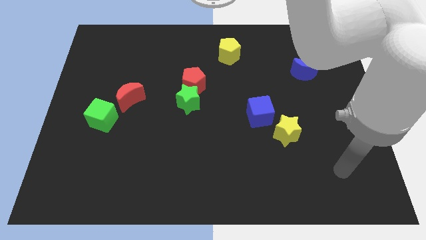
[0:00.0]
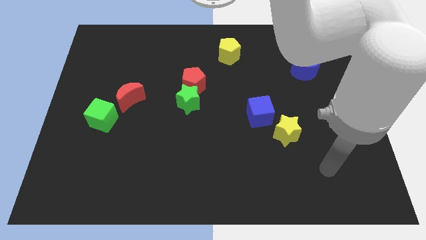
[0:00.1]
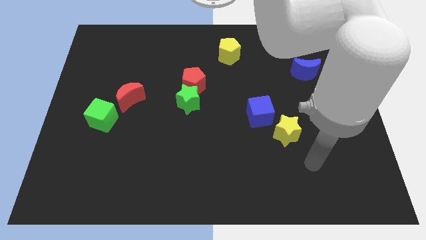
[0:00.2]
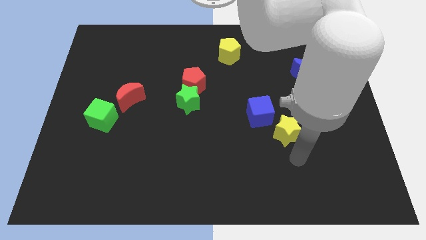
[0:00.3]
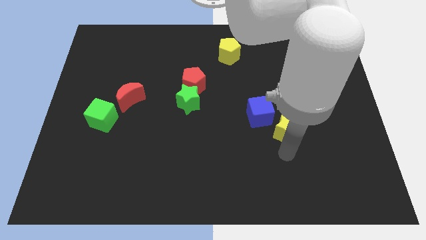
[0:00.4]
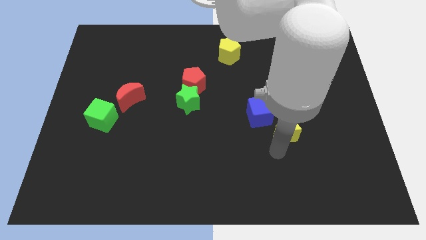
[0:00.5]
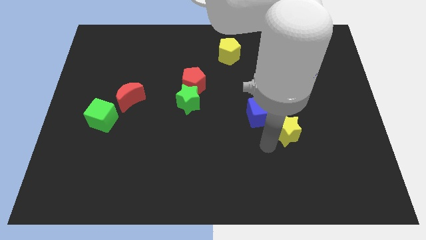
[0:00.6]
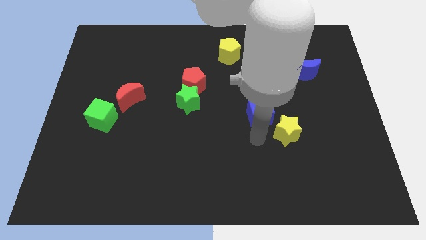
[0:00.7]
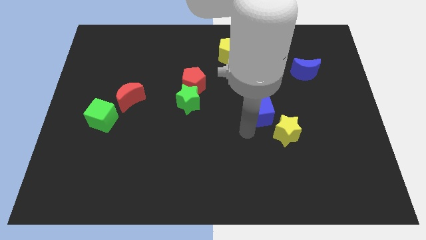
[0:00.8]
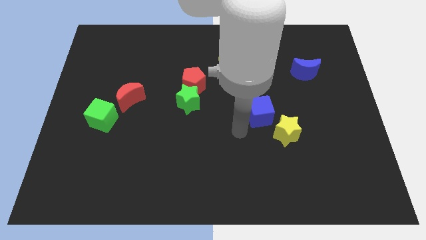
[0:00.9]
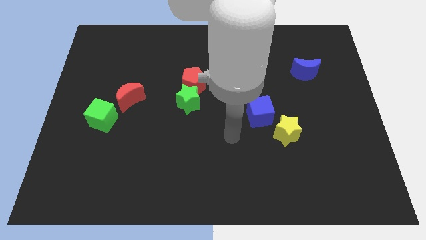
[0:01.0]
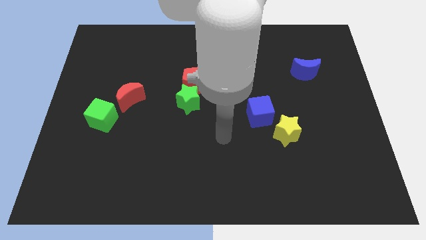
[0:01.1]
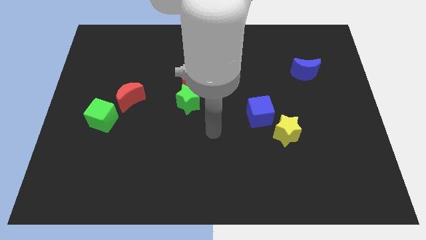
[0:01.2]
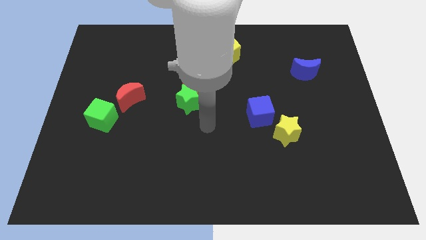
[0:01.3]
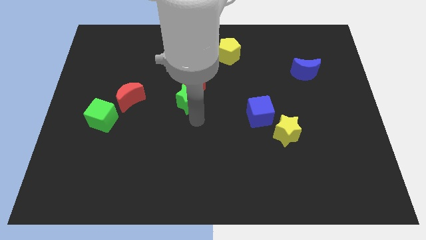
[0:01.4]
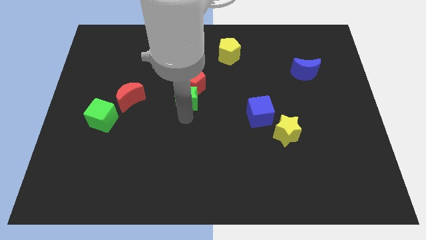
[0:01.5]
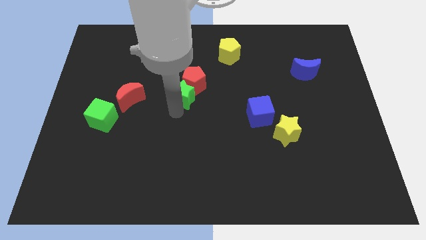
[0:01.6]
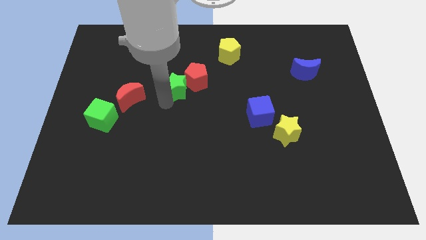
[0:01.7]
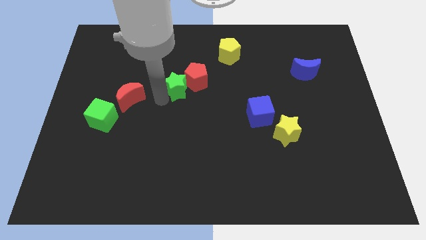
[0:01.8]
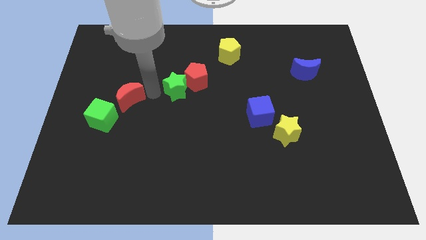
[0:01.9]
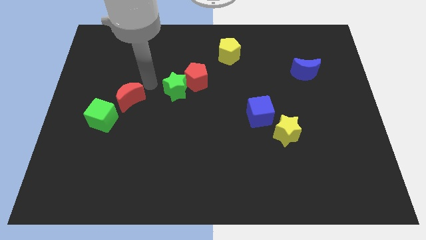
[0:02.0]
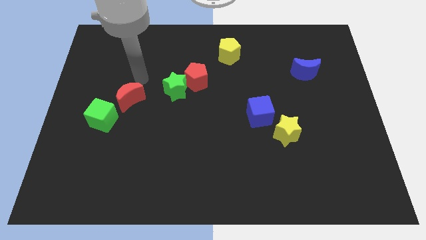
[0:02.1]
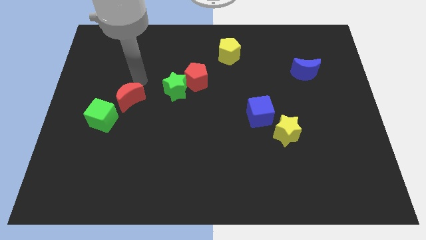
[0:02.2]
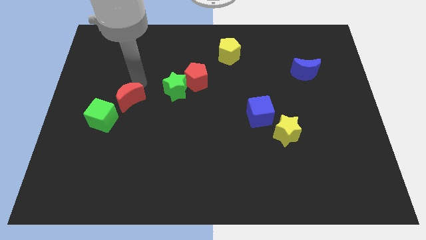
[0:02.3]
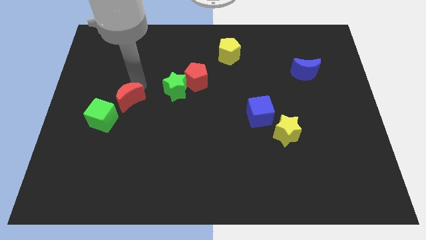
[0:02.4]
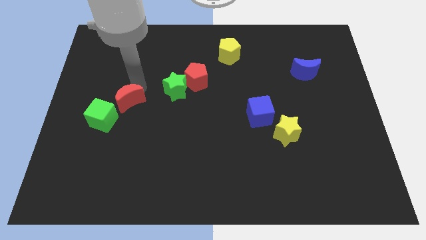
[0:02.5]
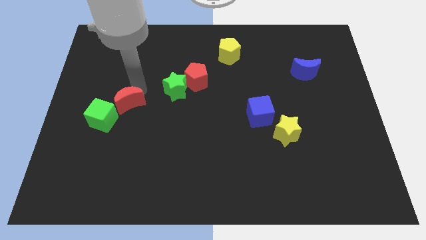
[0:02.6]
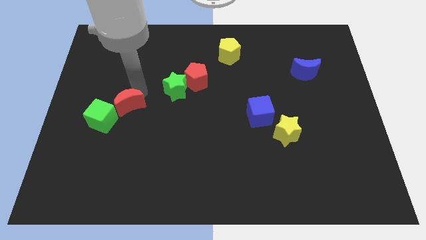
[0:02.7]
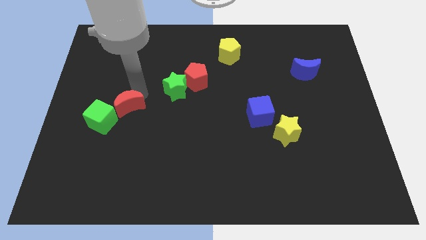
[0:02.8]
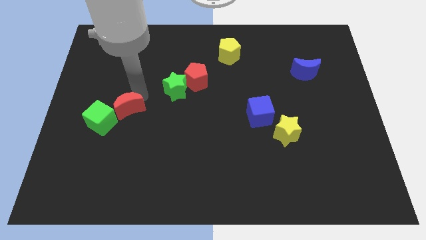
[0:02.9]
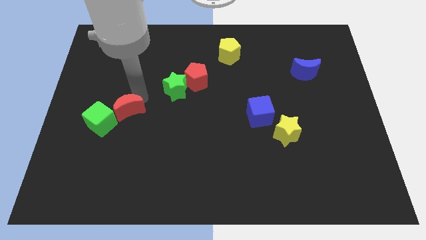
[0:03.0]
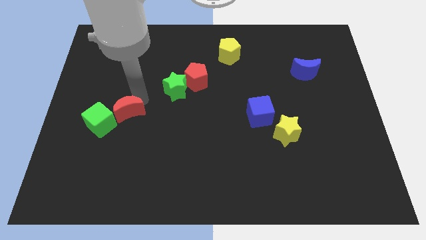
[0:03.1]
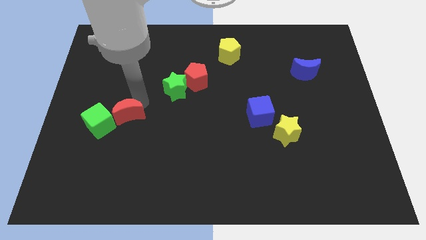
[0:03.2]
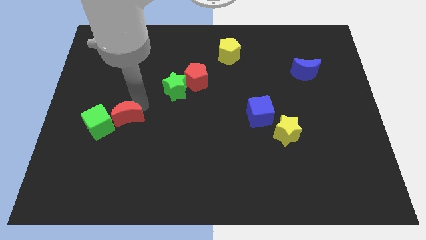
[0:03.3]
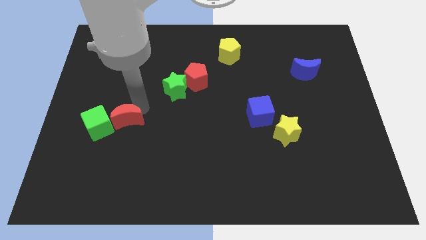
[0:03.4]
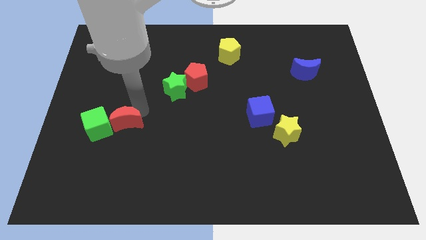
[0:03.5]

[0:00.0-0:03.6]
move the red moon downwards a bit

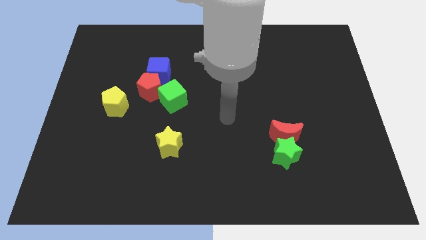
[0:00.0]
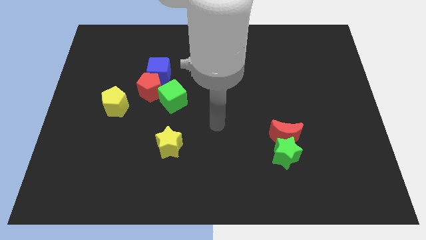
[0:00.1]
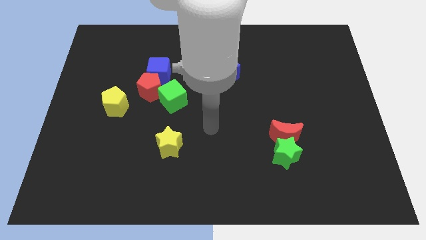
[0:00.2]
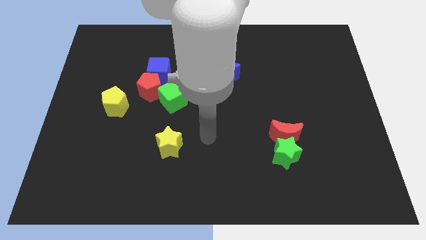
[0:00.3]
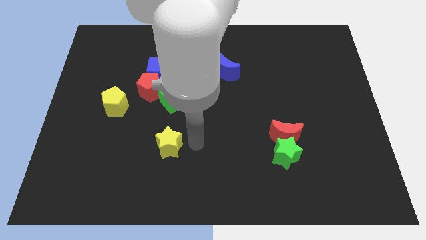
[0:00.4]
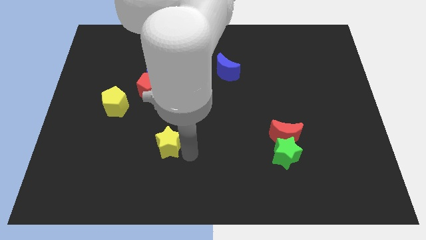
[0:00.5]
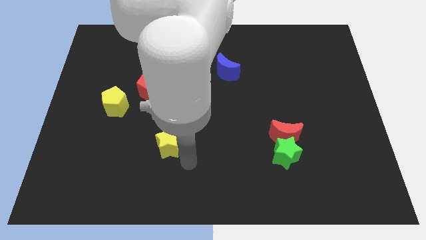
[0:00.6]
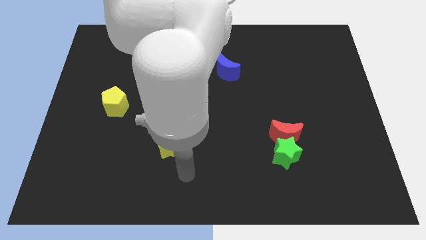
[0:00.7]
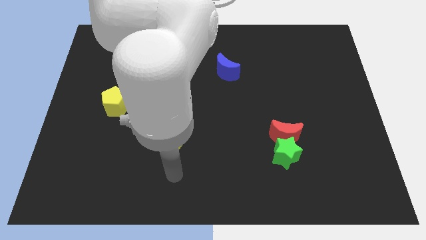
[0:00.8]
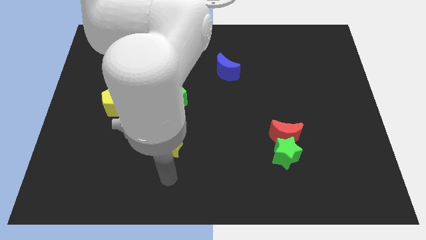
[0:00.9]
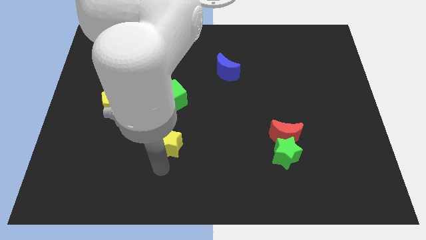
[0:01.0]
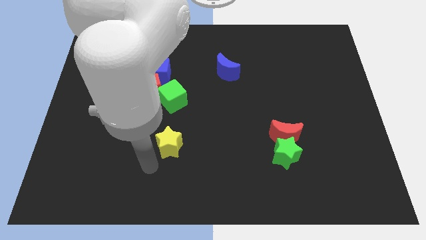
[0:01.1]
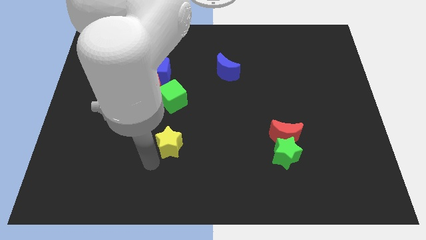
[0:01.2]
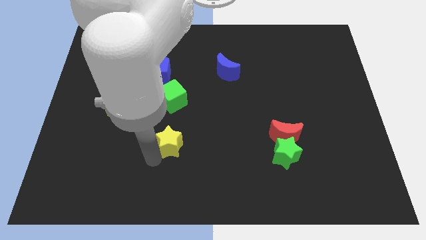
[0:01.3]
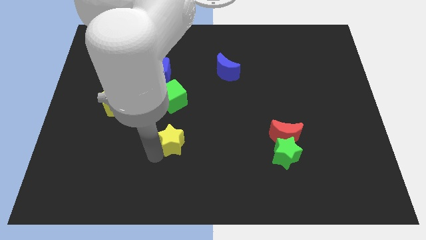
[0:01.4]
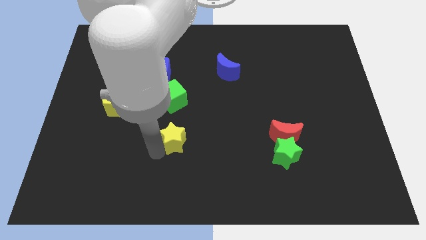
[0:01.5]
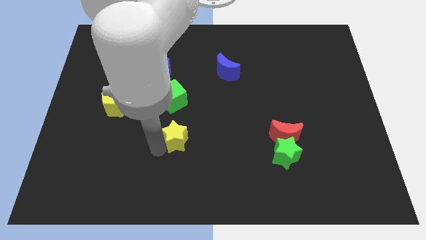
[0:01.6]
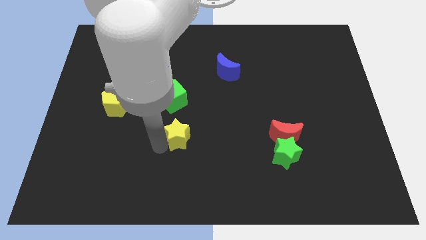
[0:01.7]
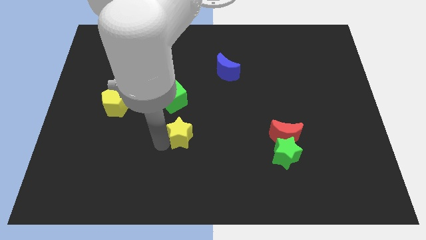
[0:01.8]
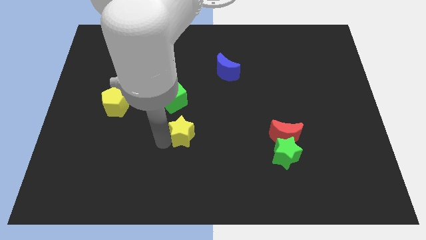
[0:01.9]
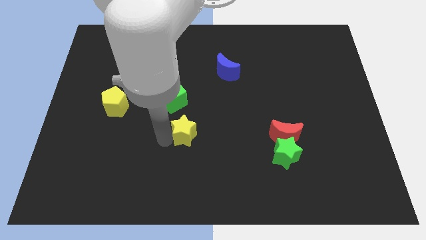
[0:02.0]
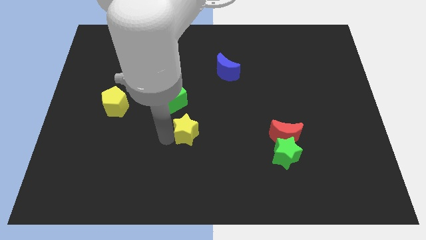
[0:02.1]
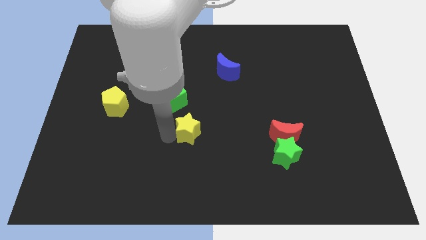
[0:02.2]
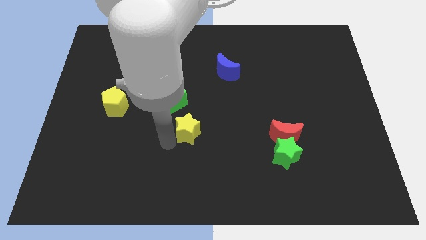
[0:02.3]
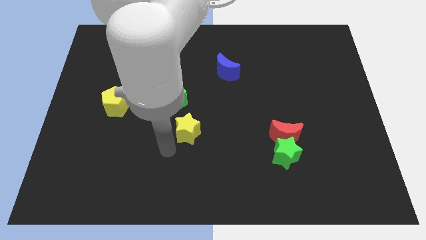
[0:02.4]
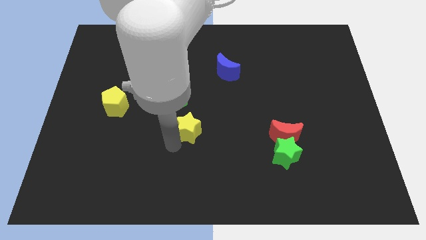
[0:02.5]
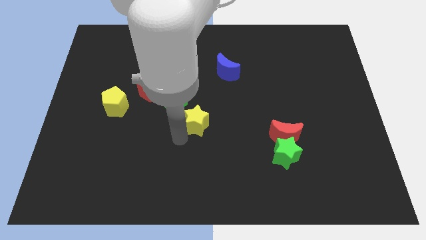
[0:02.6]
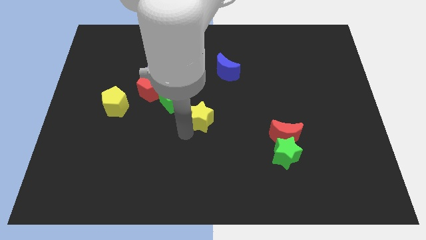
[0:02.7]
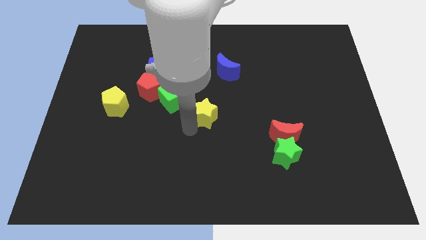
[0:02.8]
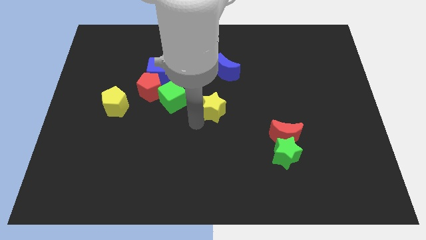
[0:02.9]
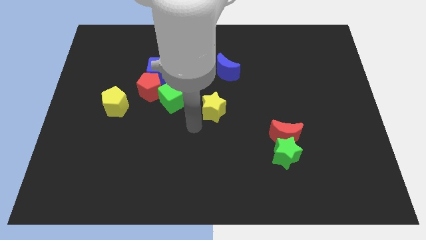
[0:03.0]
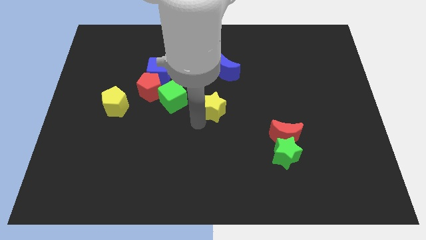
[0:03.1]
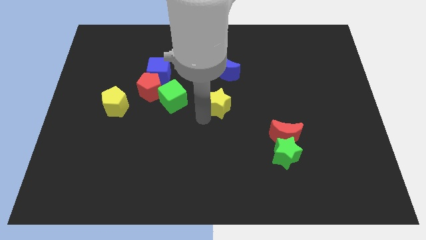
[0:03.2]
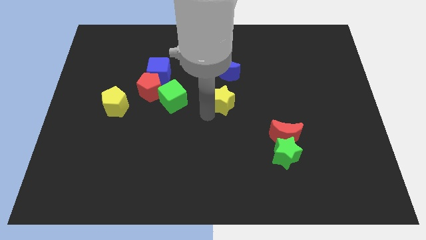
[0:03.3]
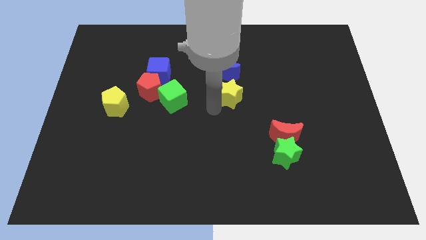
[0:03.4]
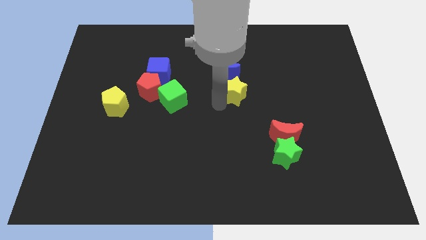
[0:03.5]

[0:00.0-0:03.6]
push the yellow star upwards and to the right diagonally

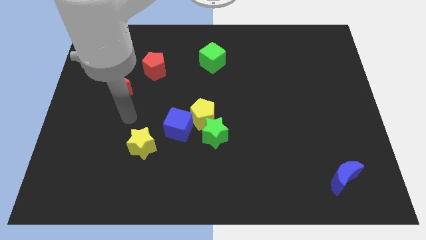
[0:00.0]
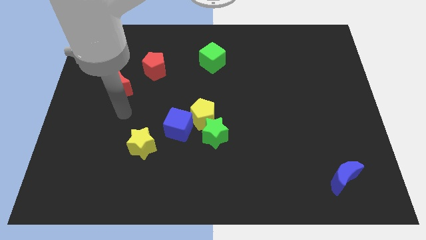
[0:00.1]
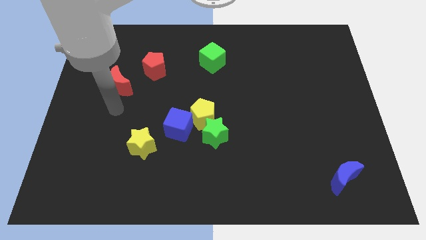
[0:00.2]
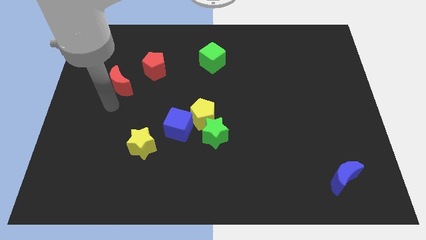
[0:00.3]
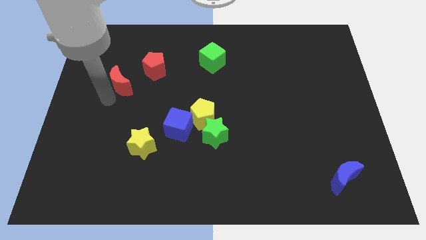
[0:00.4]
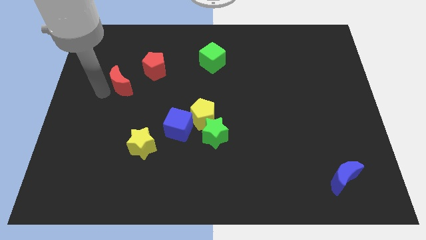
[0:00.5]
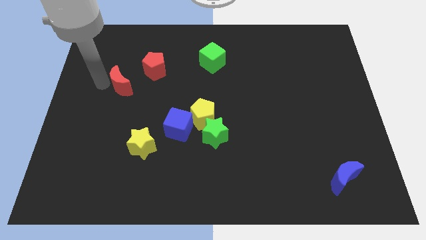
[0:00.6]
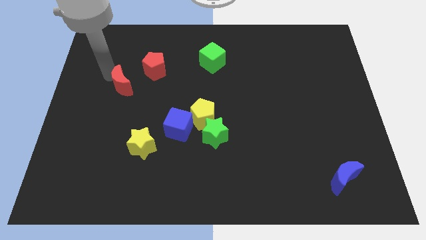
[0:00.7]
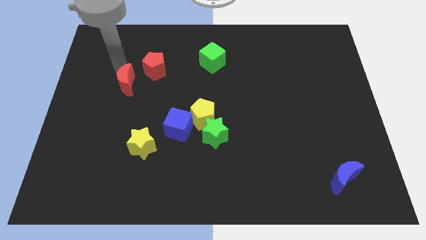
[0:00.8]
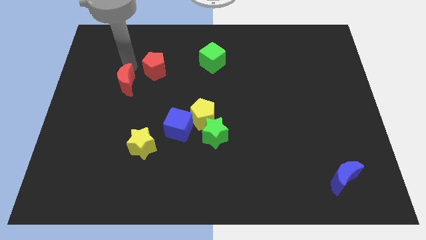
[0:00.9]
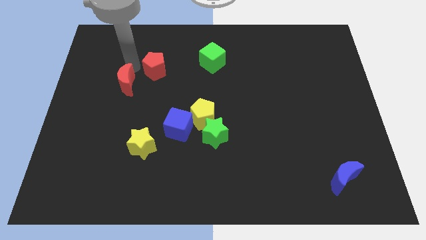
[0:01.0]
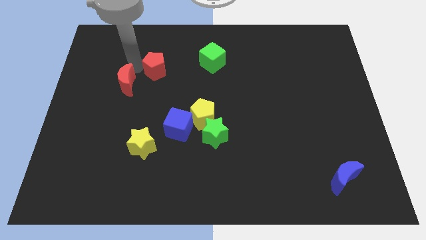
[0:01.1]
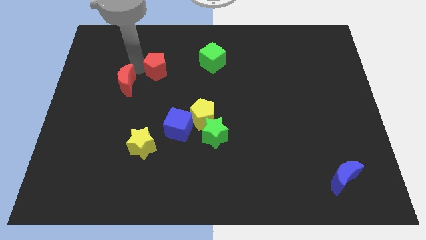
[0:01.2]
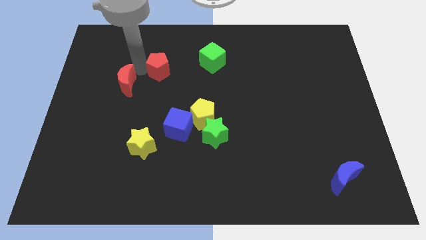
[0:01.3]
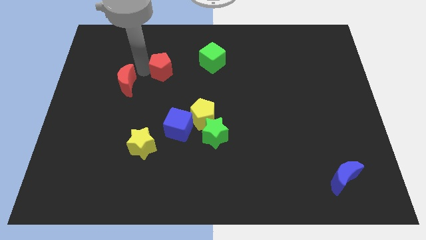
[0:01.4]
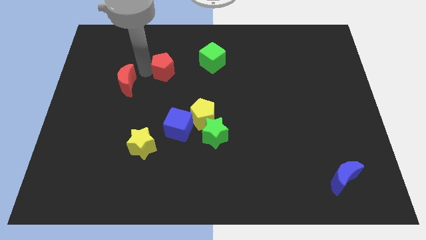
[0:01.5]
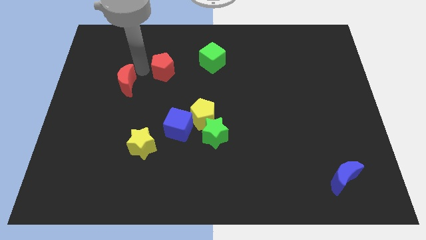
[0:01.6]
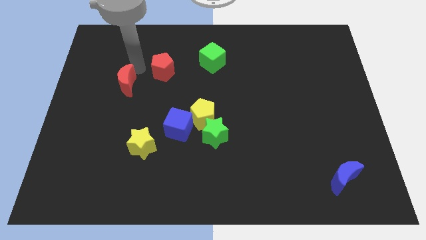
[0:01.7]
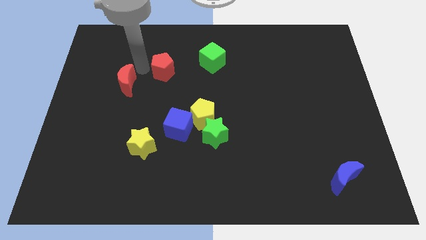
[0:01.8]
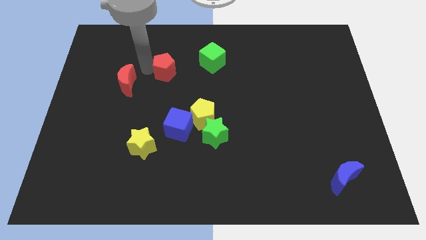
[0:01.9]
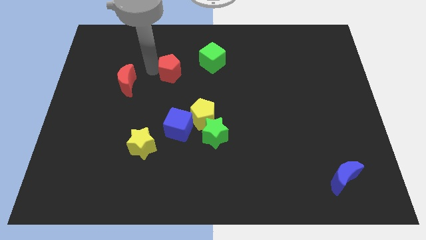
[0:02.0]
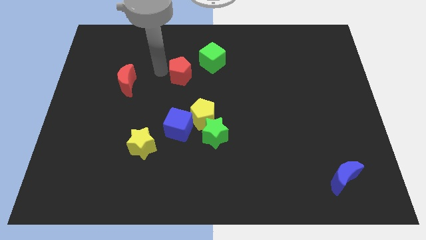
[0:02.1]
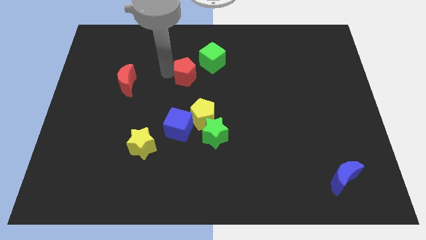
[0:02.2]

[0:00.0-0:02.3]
slightly slide the red pentagon right
